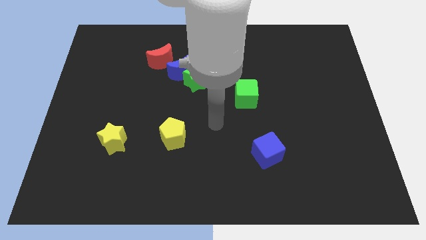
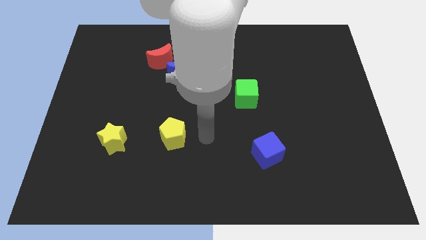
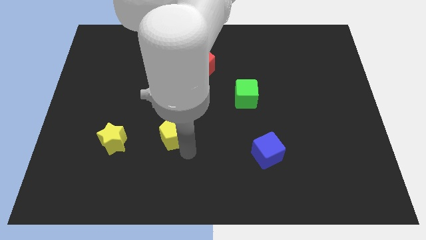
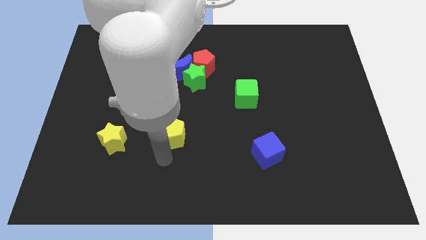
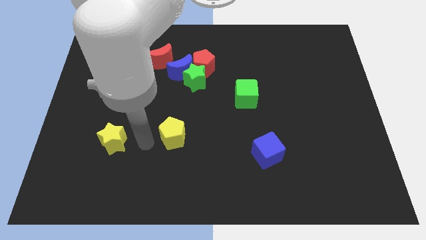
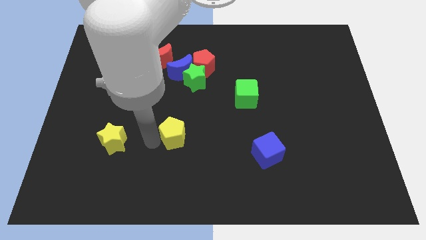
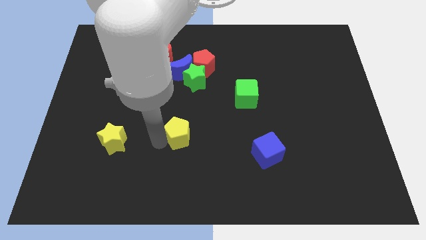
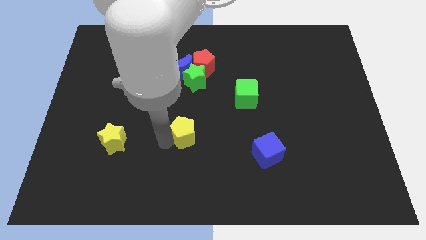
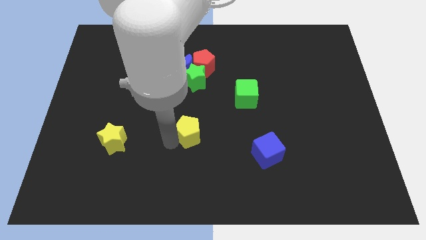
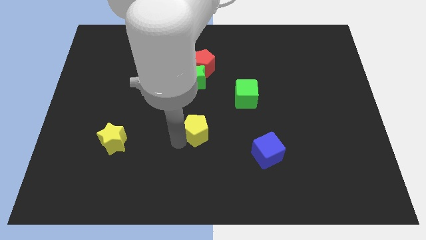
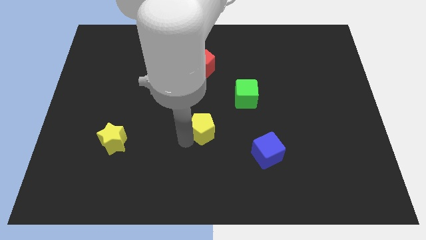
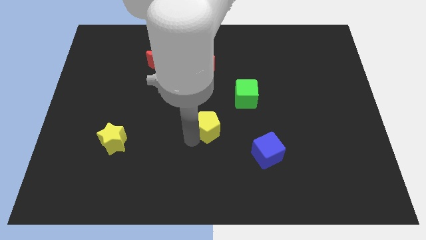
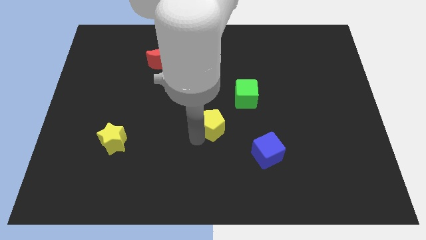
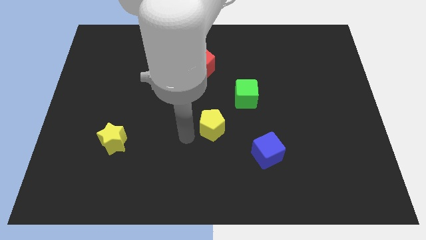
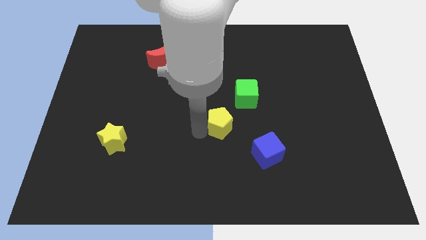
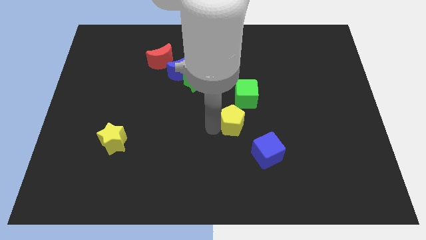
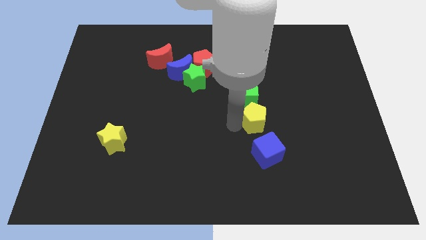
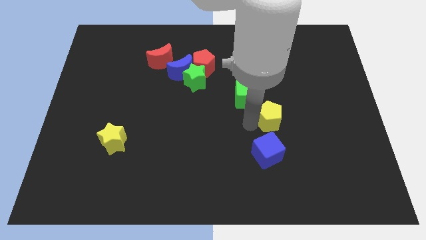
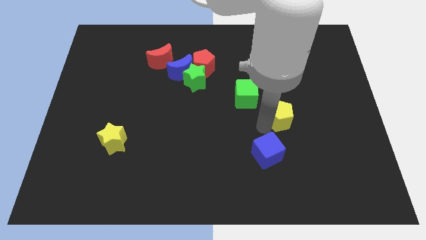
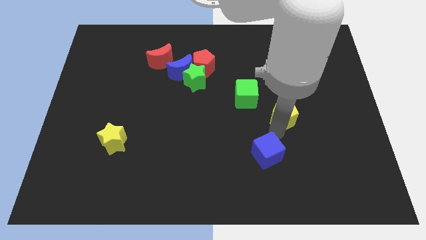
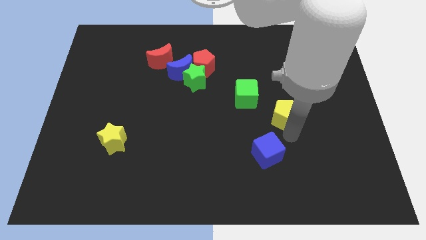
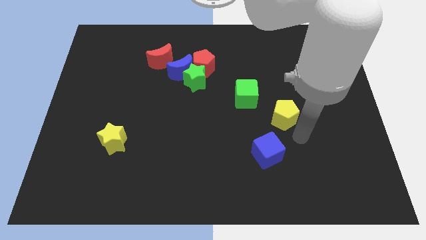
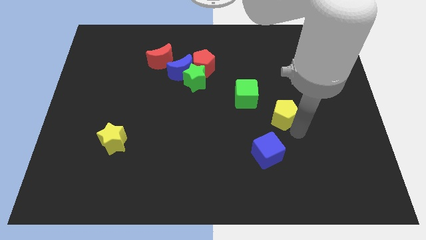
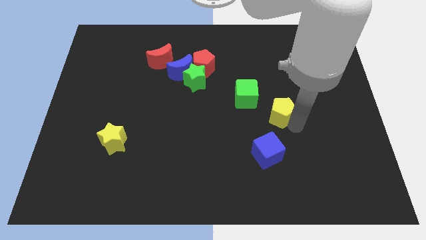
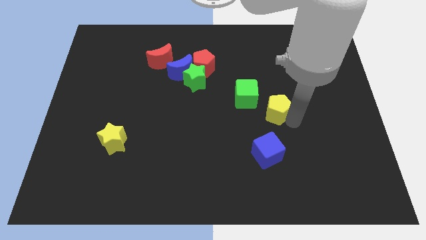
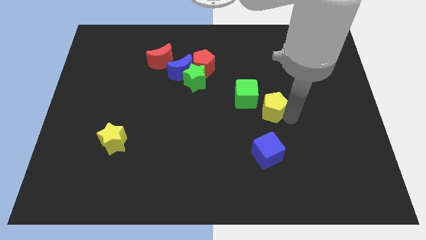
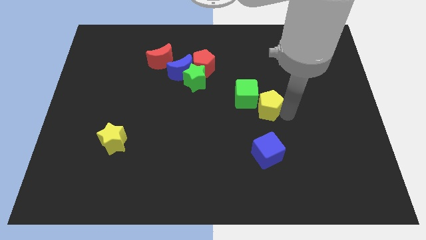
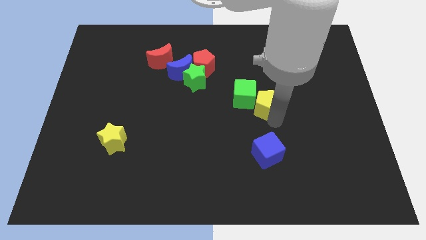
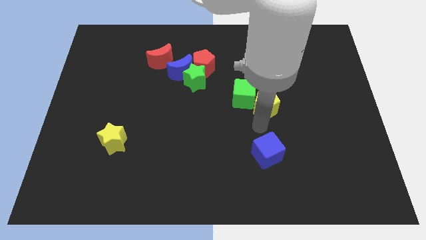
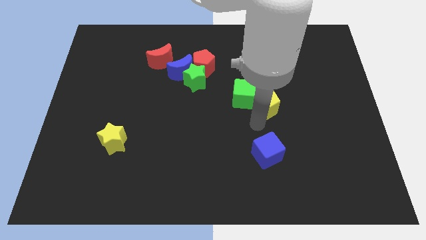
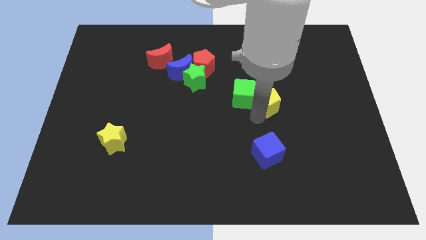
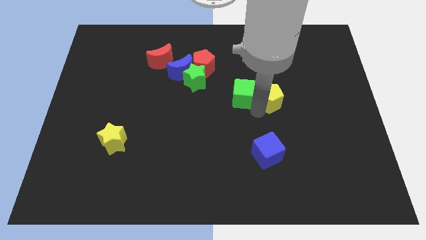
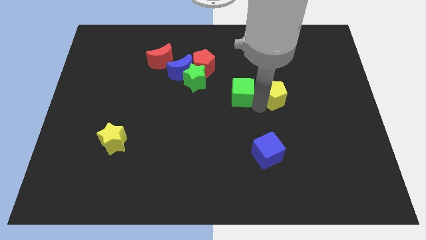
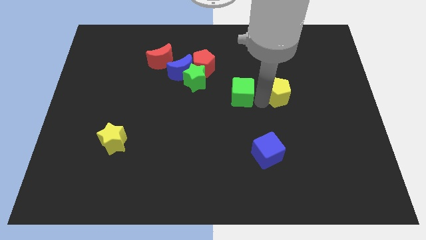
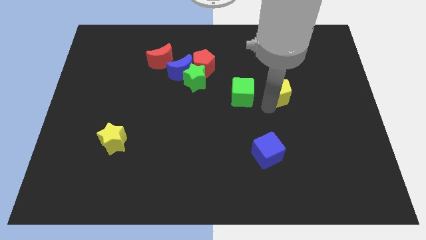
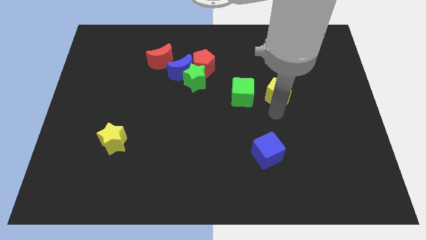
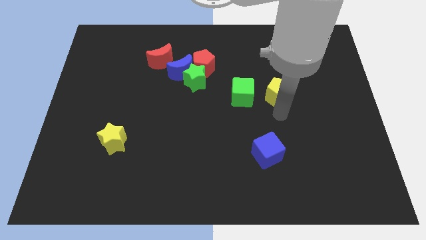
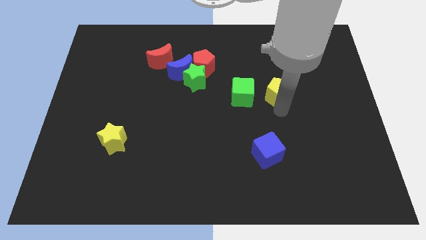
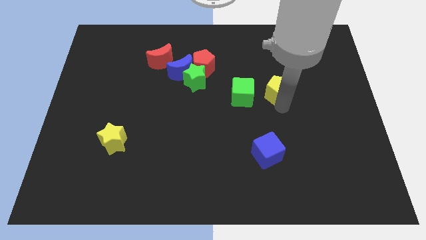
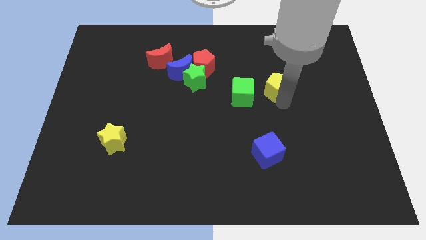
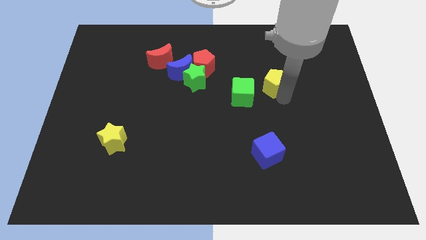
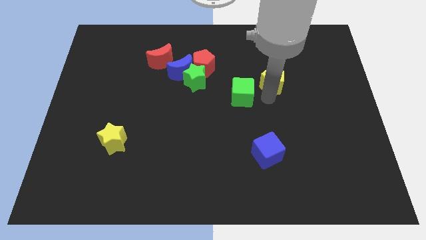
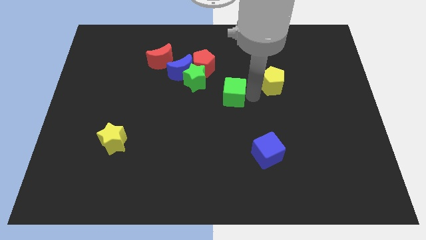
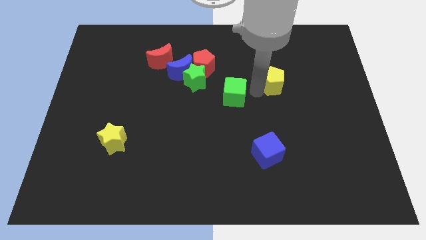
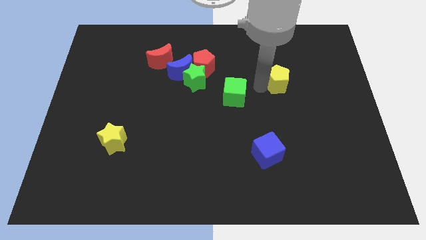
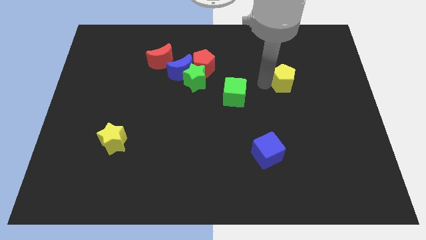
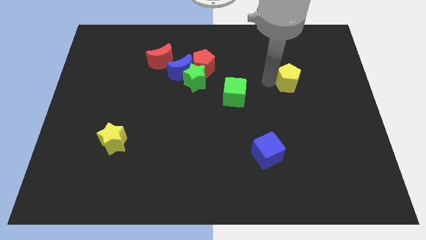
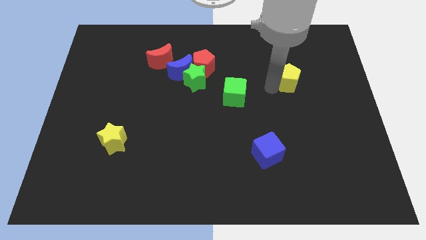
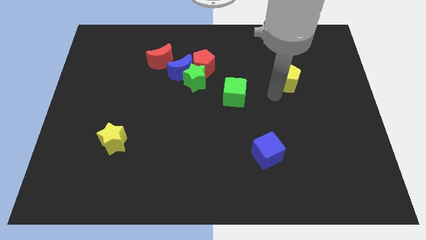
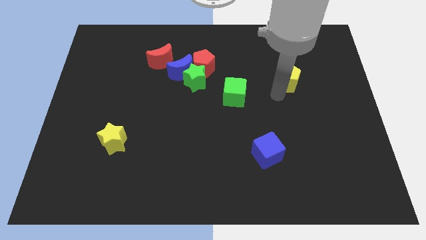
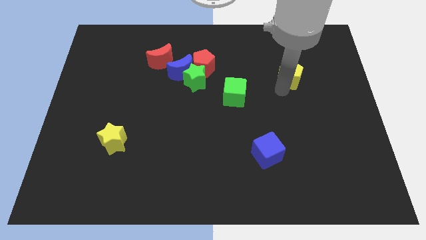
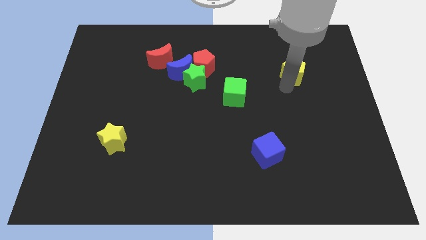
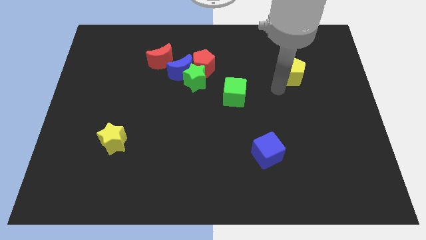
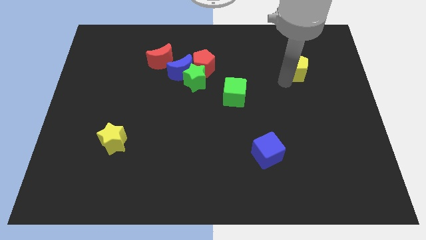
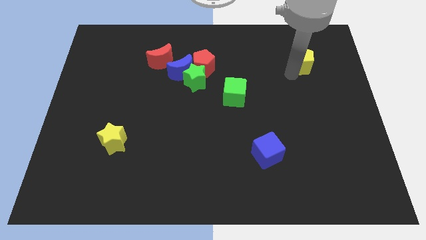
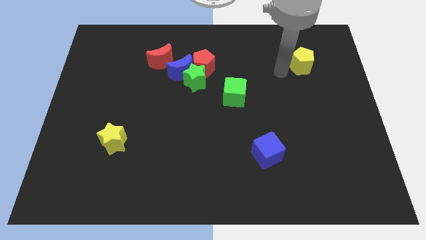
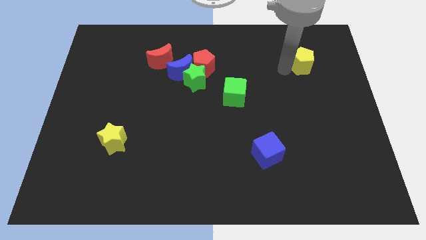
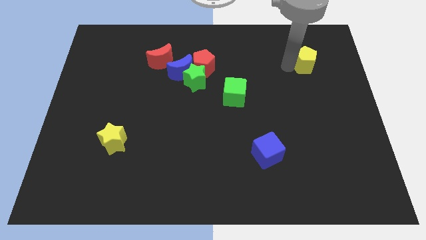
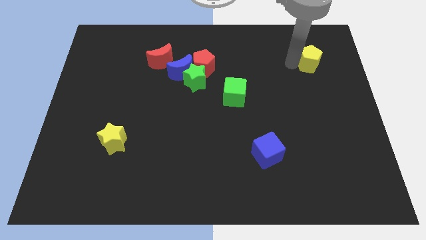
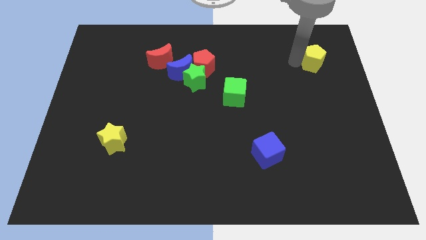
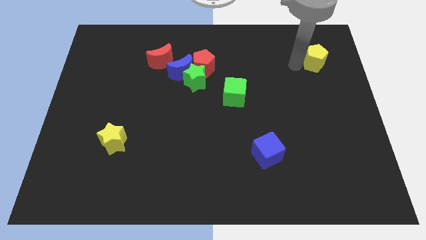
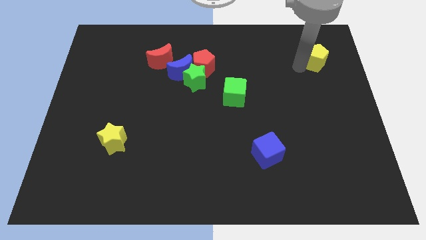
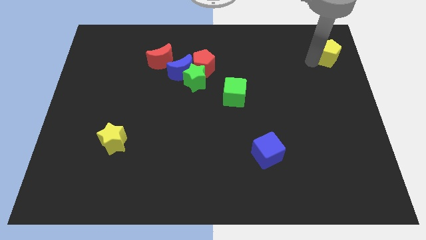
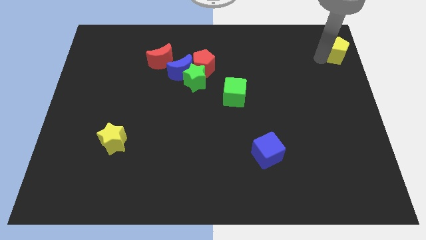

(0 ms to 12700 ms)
move the yellow pentagon to the top right corner

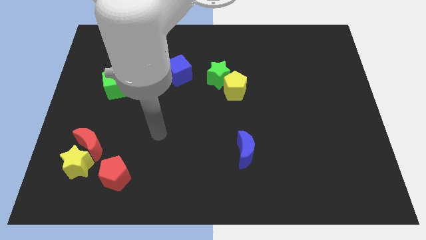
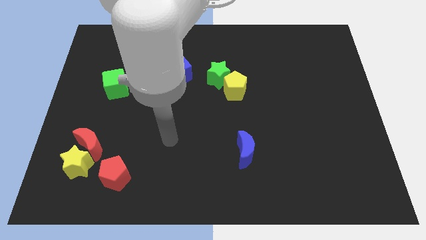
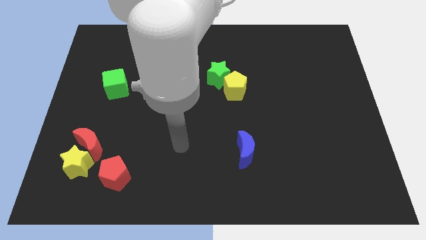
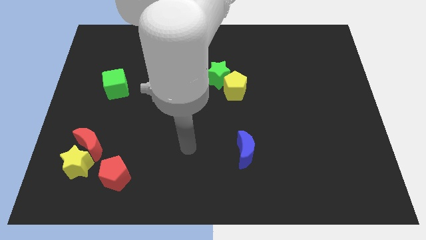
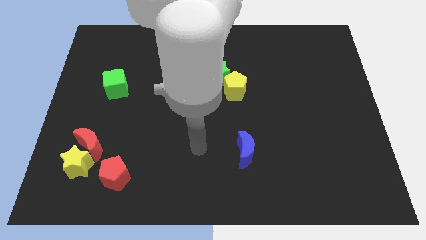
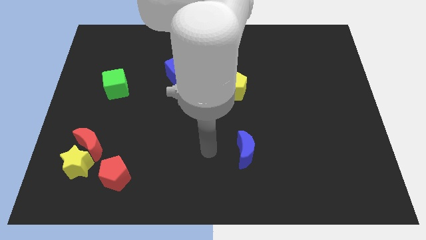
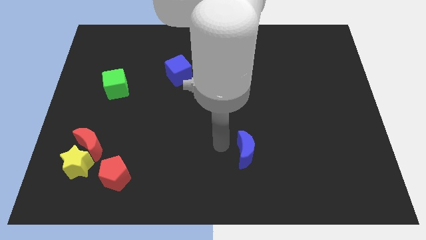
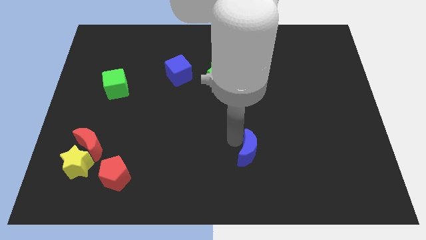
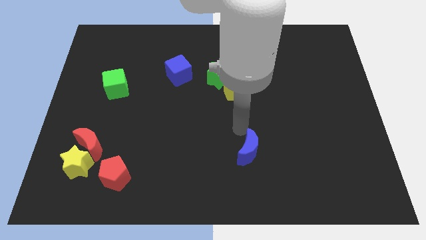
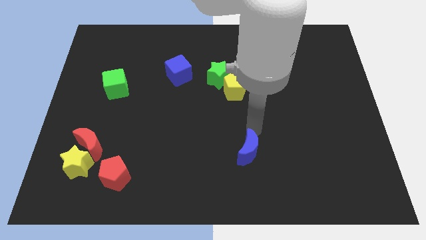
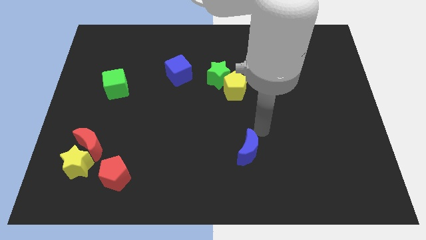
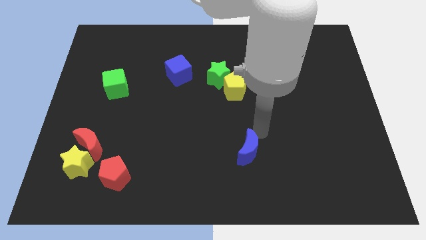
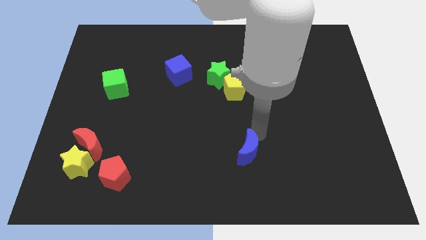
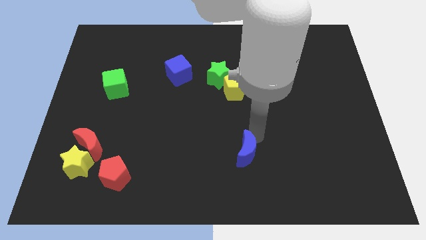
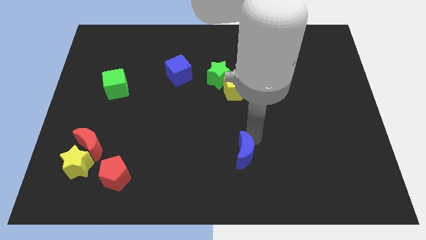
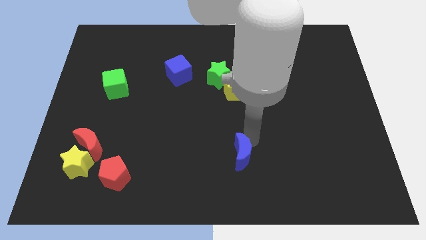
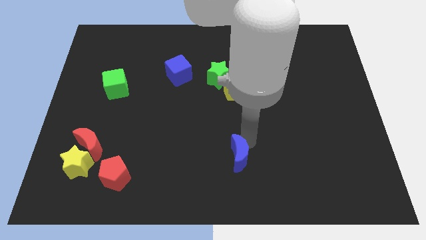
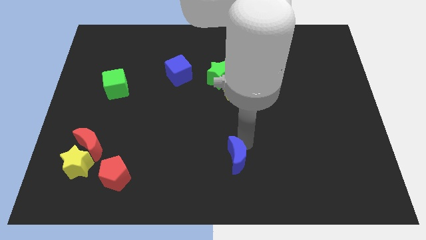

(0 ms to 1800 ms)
move the blue moon to the bottom
